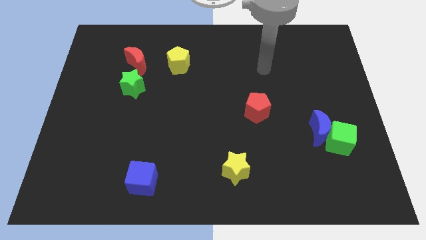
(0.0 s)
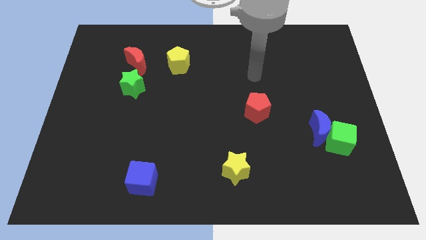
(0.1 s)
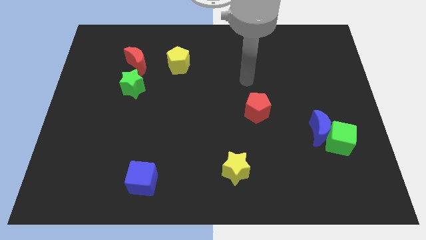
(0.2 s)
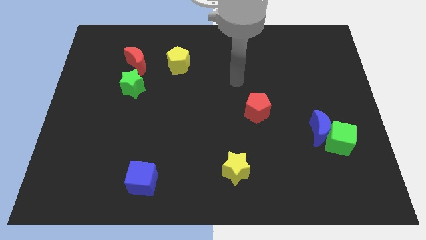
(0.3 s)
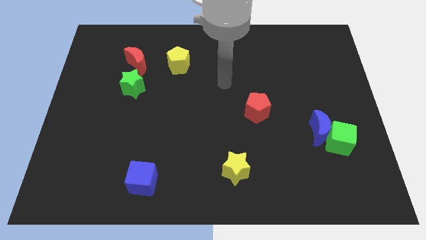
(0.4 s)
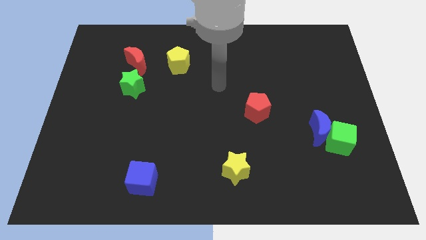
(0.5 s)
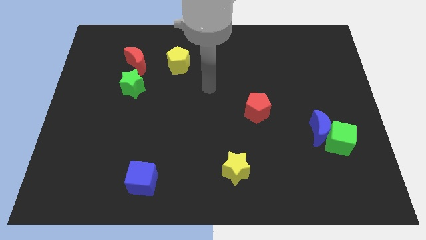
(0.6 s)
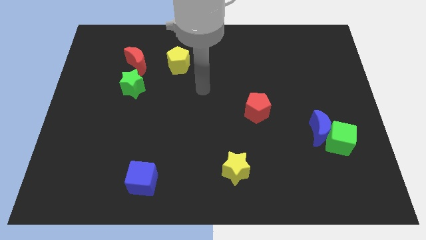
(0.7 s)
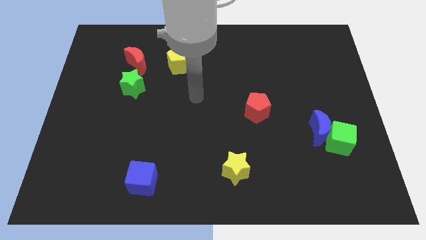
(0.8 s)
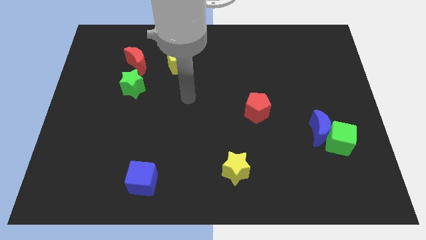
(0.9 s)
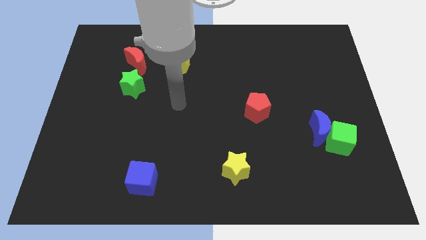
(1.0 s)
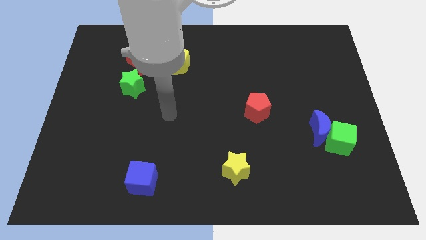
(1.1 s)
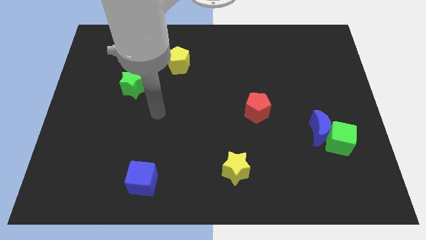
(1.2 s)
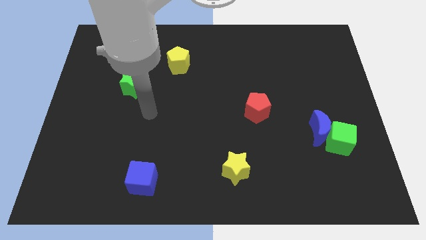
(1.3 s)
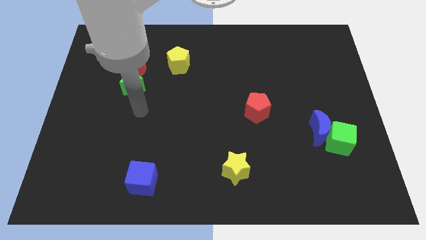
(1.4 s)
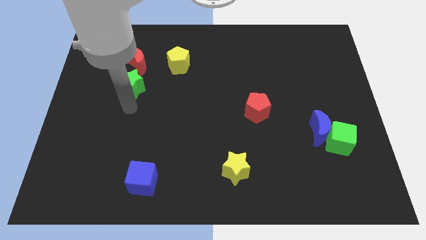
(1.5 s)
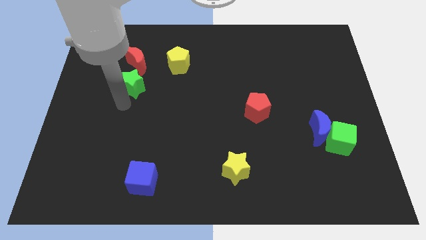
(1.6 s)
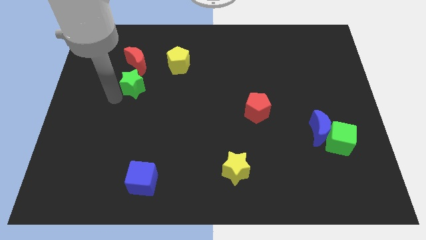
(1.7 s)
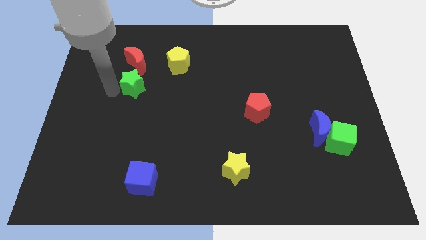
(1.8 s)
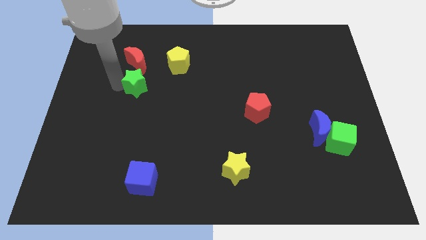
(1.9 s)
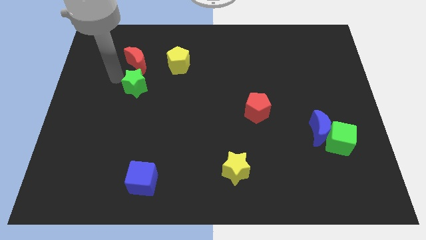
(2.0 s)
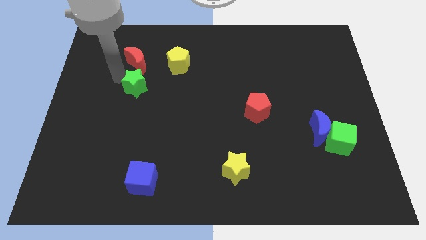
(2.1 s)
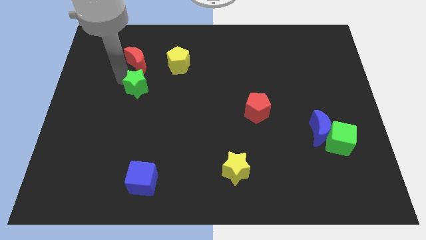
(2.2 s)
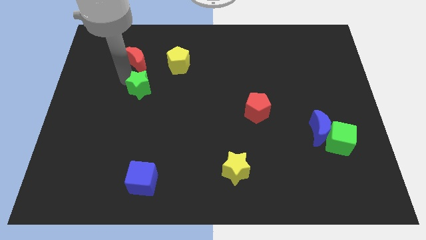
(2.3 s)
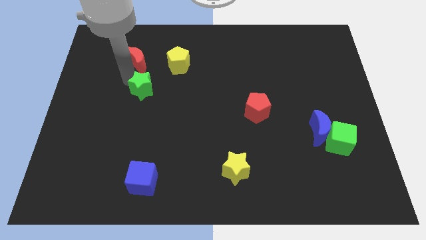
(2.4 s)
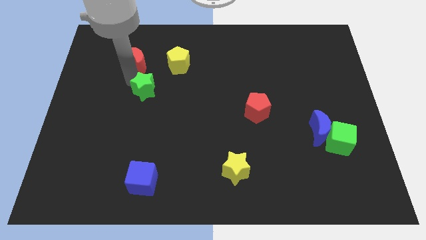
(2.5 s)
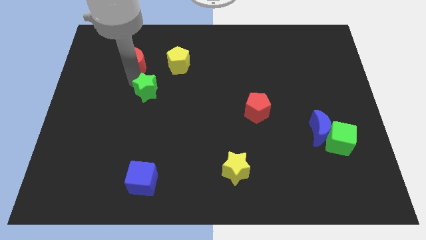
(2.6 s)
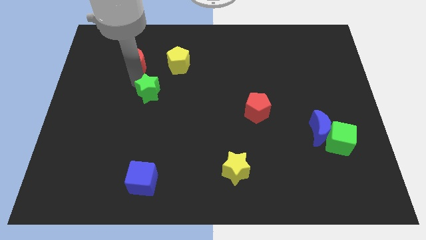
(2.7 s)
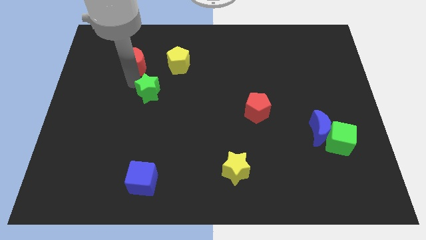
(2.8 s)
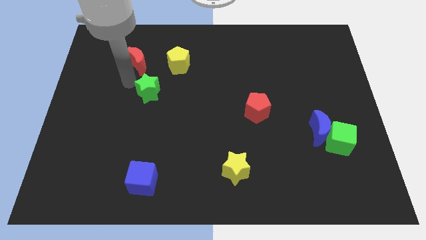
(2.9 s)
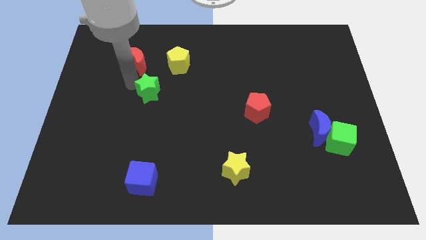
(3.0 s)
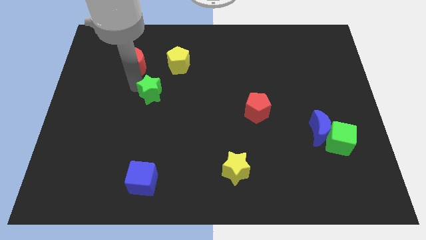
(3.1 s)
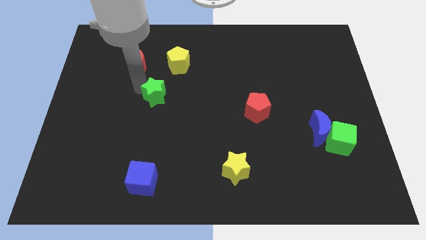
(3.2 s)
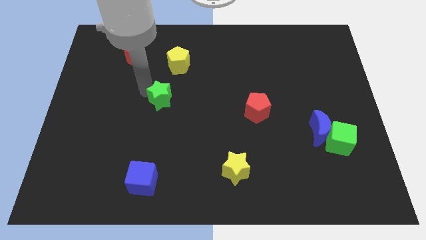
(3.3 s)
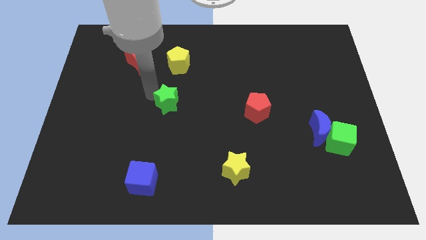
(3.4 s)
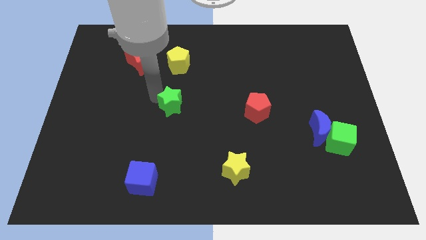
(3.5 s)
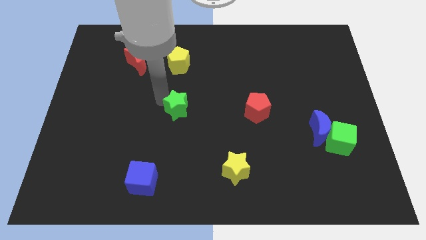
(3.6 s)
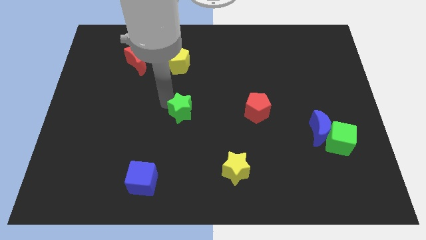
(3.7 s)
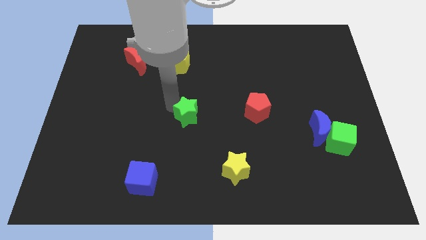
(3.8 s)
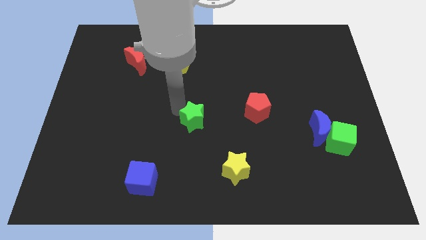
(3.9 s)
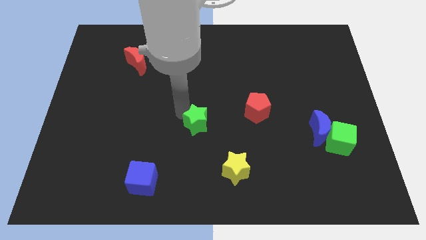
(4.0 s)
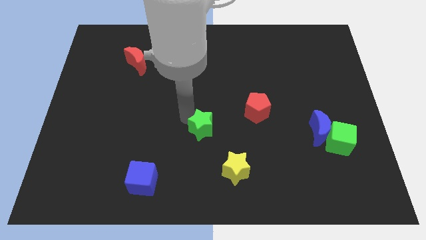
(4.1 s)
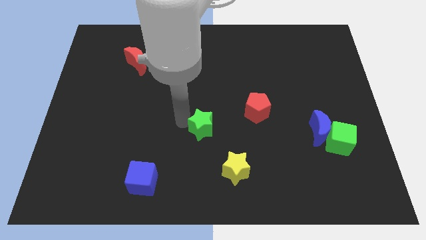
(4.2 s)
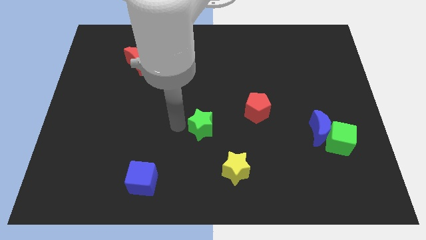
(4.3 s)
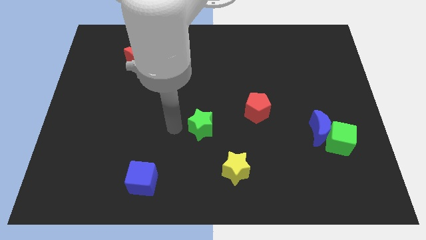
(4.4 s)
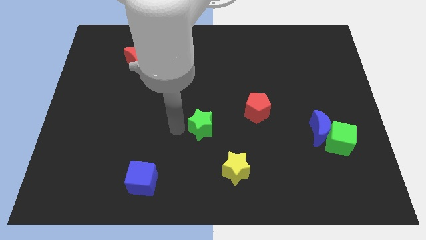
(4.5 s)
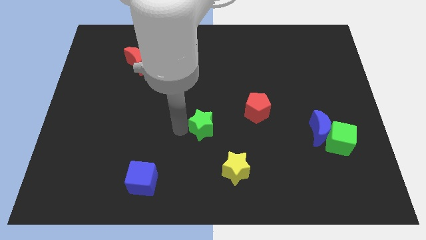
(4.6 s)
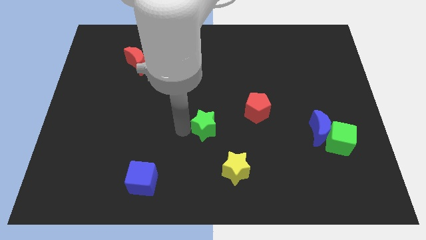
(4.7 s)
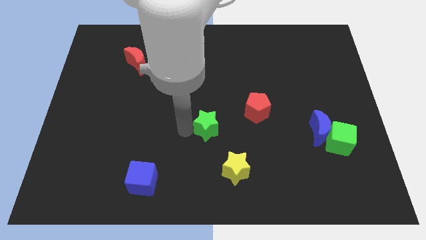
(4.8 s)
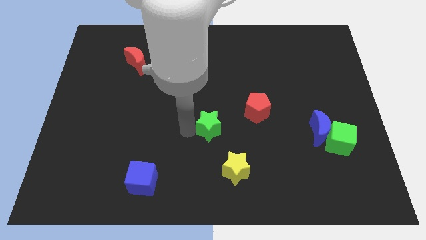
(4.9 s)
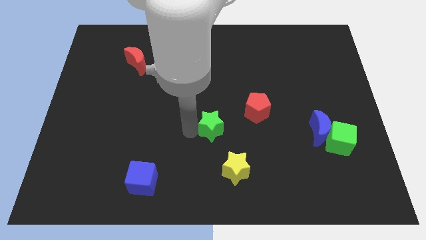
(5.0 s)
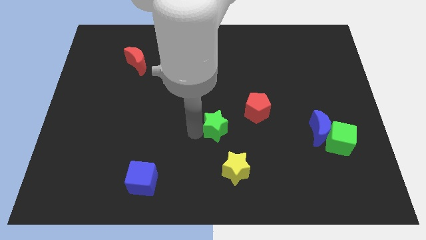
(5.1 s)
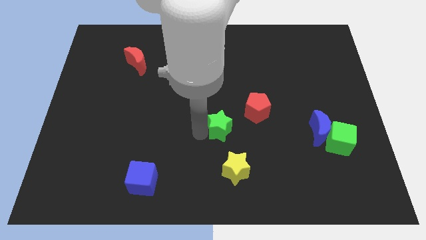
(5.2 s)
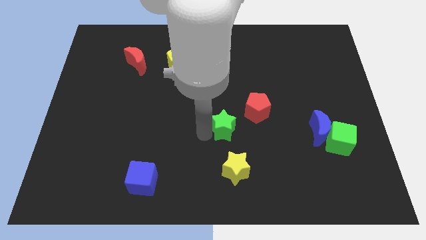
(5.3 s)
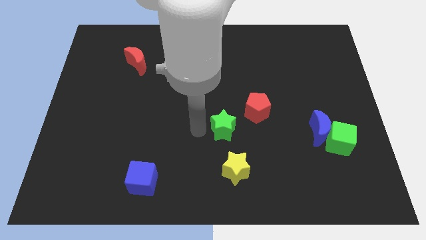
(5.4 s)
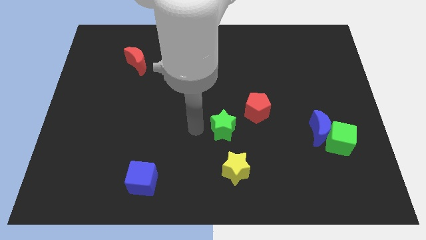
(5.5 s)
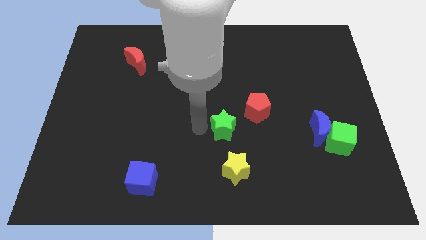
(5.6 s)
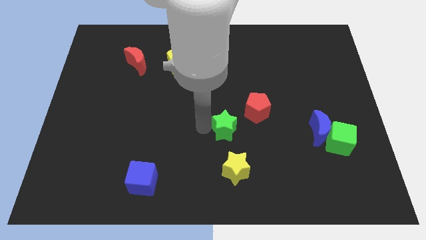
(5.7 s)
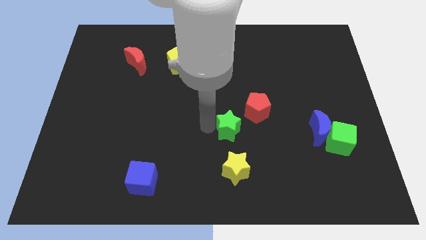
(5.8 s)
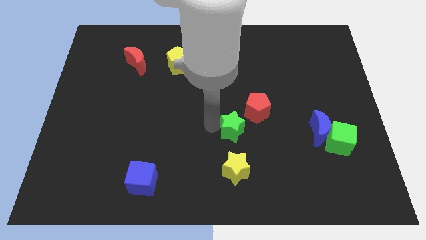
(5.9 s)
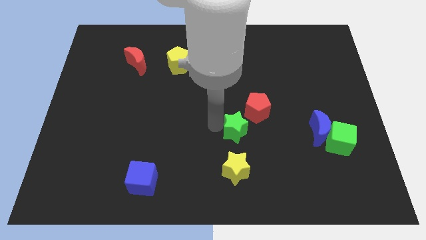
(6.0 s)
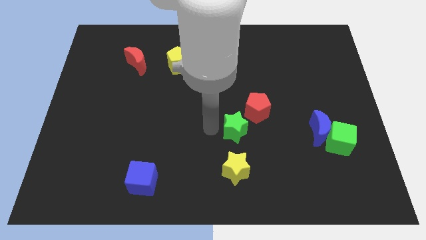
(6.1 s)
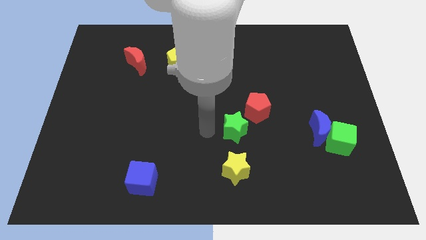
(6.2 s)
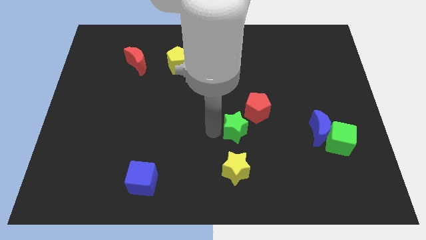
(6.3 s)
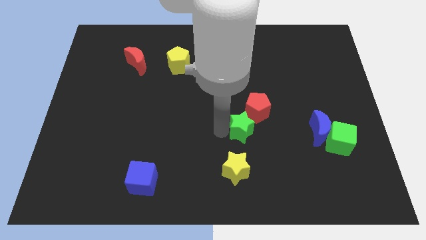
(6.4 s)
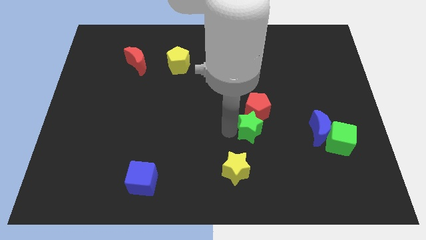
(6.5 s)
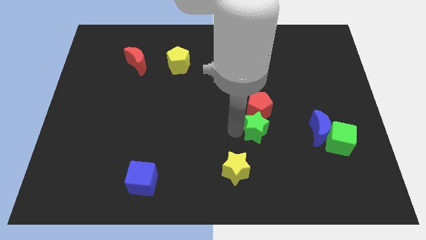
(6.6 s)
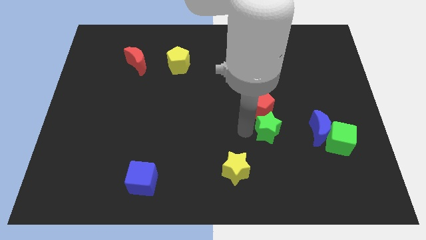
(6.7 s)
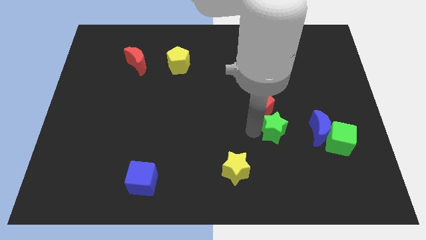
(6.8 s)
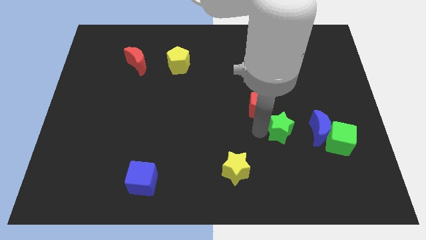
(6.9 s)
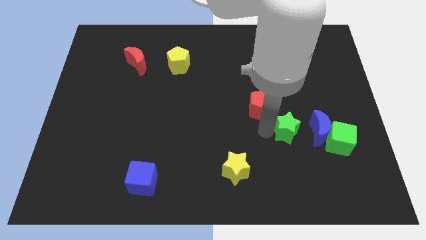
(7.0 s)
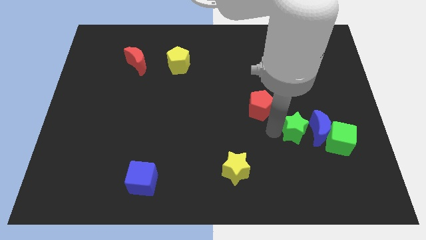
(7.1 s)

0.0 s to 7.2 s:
move the green star to the blue moon
